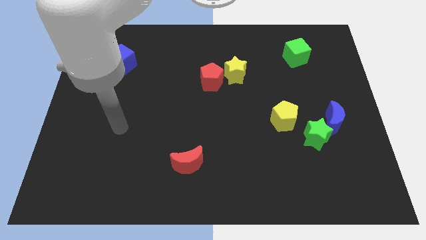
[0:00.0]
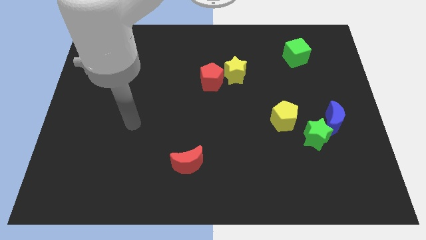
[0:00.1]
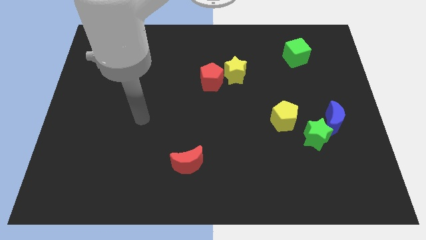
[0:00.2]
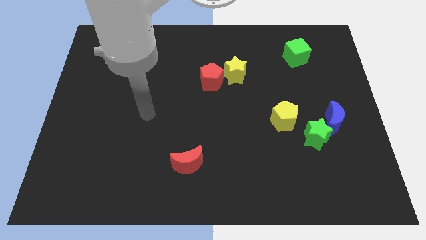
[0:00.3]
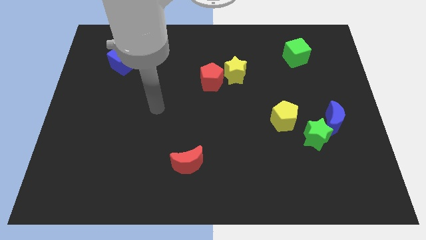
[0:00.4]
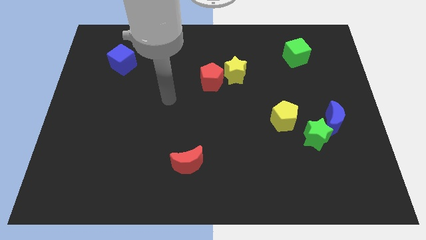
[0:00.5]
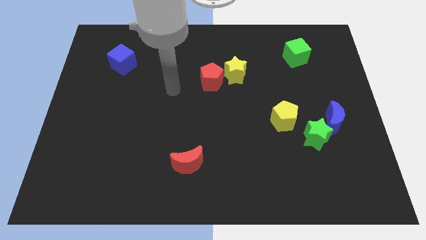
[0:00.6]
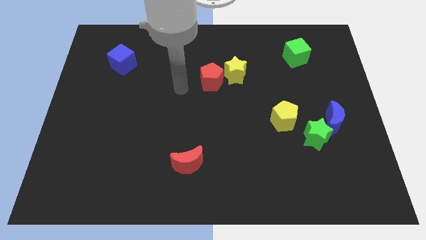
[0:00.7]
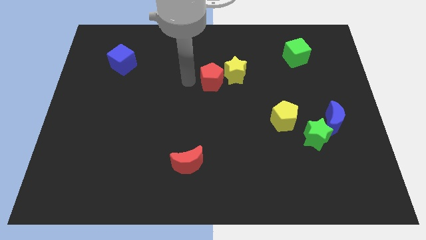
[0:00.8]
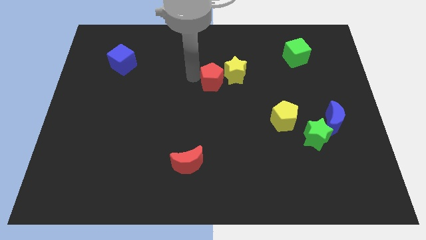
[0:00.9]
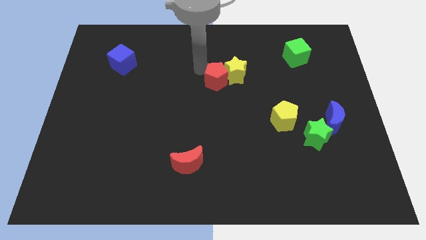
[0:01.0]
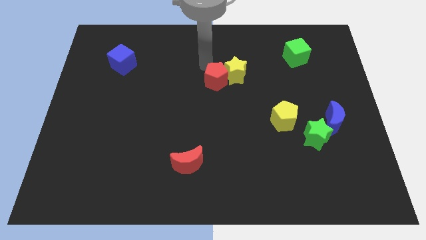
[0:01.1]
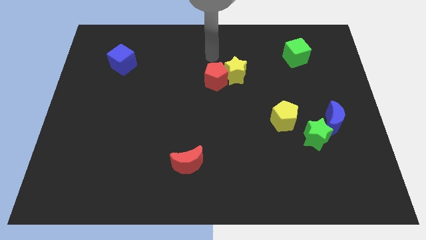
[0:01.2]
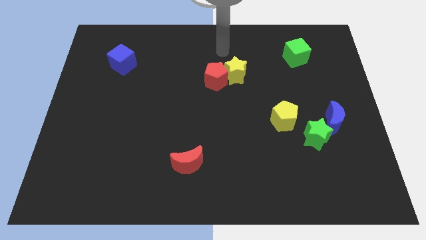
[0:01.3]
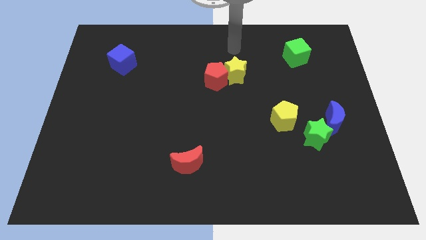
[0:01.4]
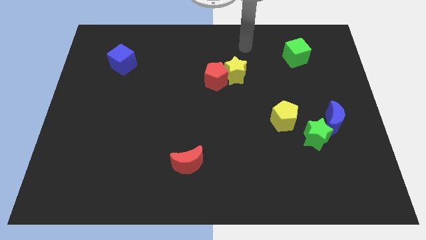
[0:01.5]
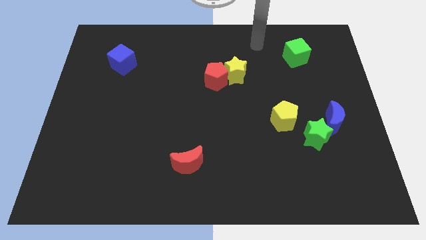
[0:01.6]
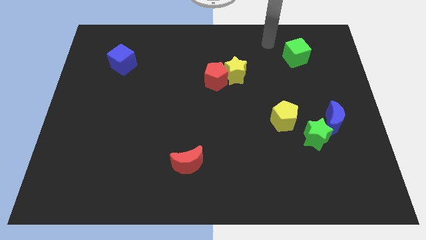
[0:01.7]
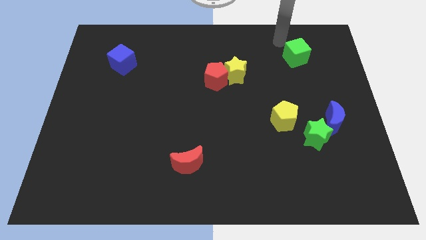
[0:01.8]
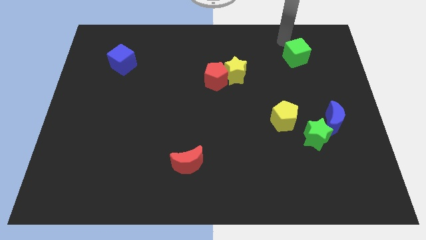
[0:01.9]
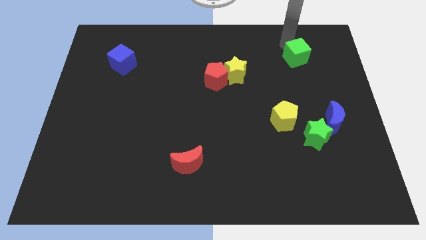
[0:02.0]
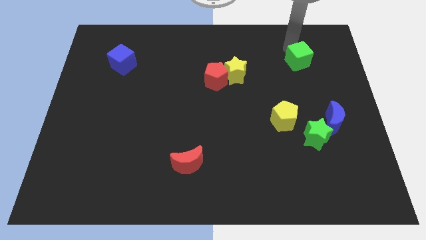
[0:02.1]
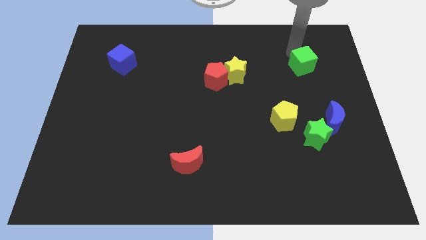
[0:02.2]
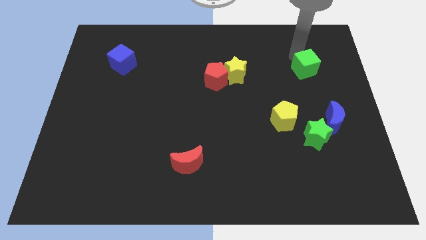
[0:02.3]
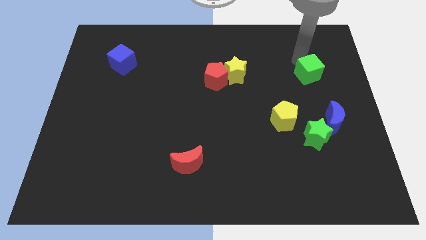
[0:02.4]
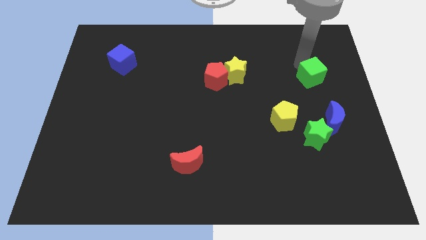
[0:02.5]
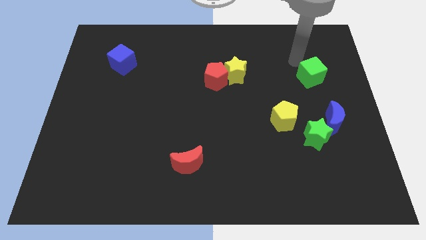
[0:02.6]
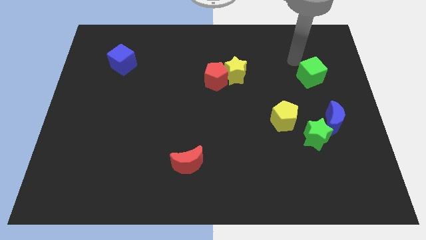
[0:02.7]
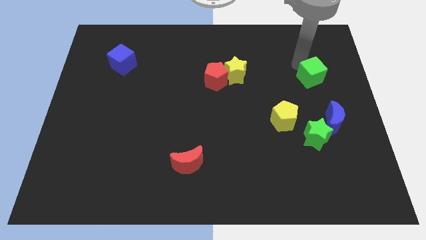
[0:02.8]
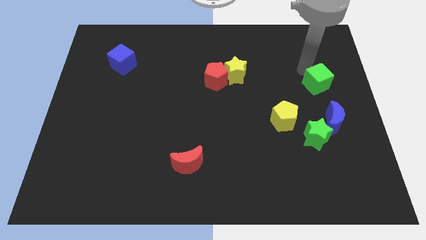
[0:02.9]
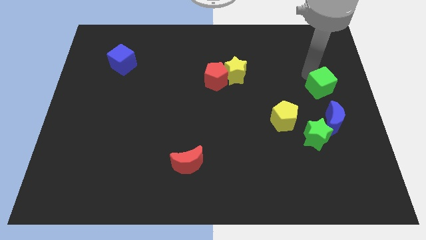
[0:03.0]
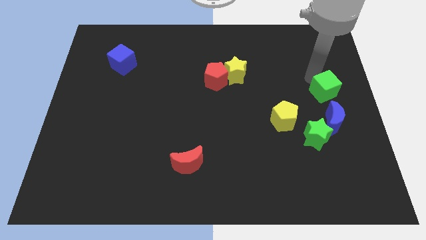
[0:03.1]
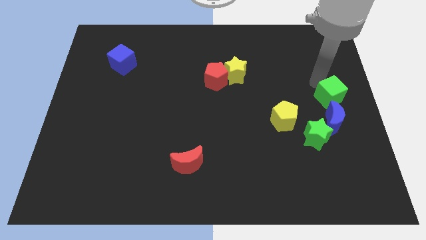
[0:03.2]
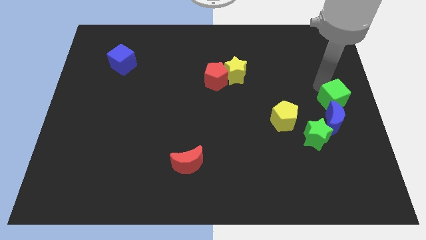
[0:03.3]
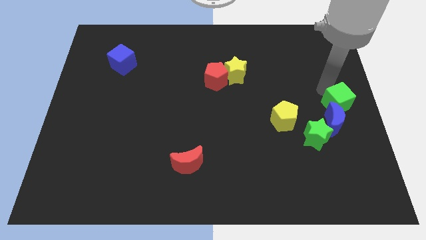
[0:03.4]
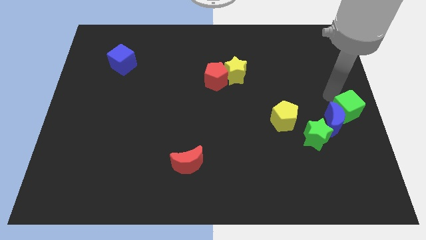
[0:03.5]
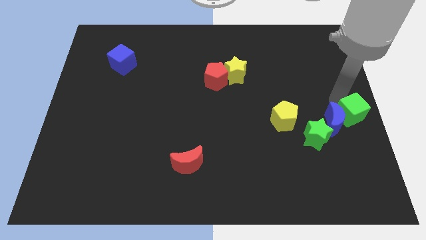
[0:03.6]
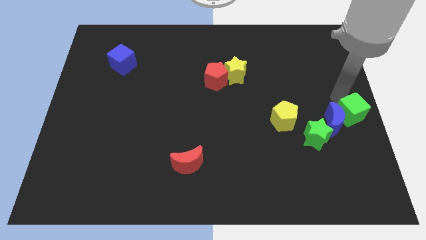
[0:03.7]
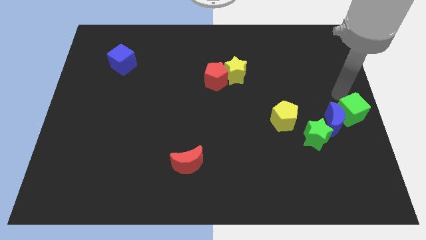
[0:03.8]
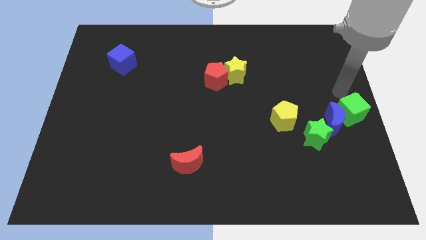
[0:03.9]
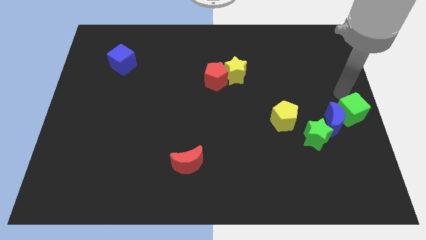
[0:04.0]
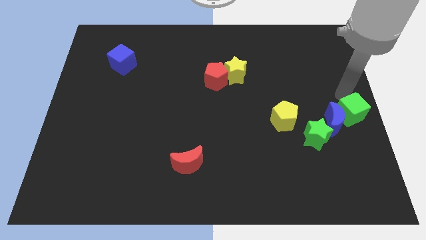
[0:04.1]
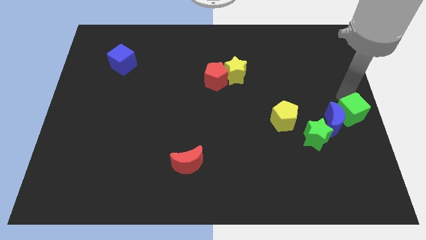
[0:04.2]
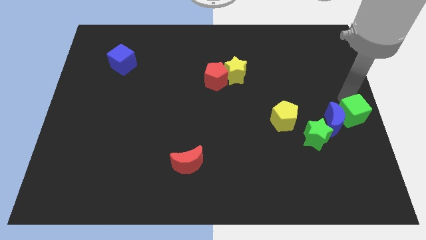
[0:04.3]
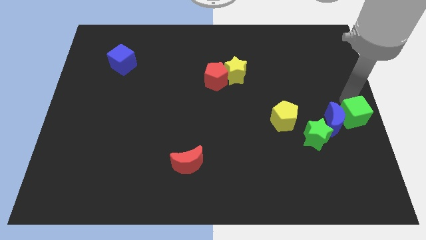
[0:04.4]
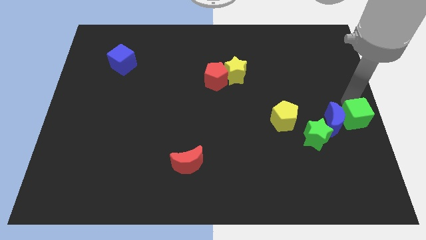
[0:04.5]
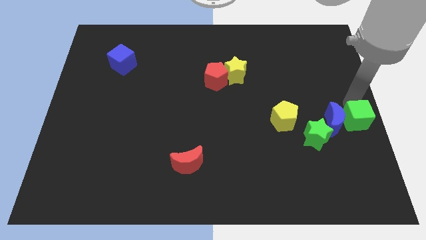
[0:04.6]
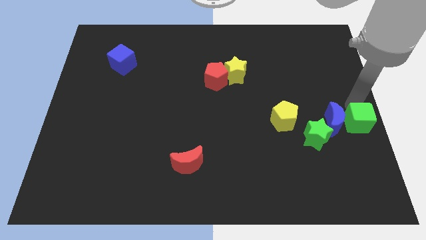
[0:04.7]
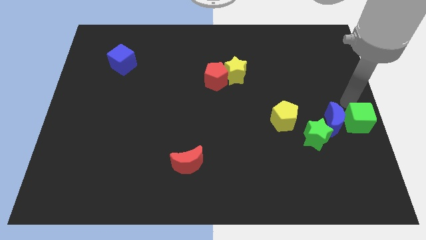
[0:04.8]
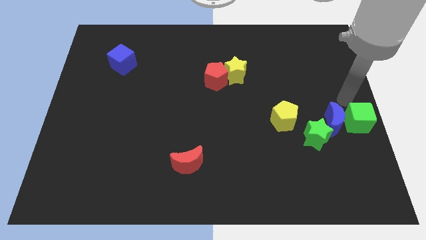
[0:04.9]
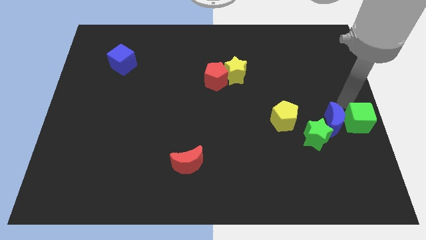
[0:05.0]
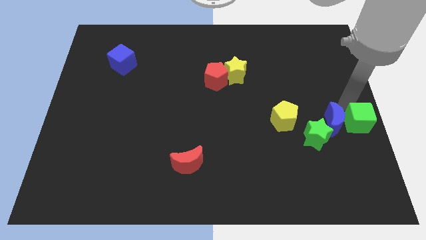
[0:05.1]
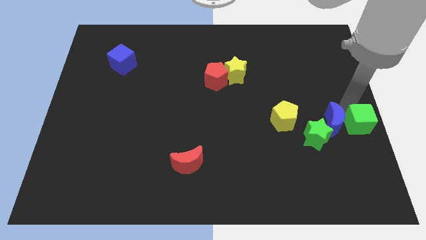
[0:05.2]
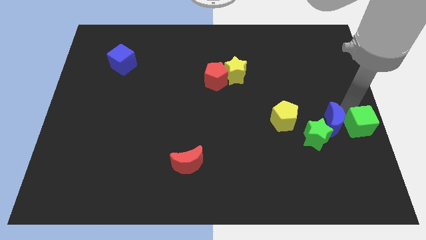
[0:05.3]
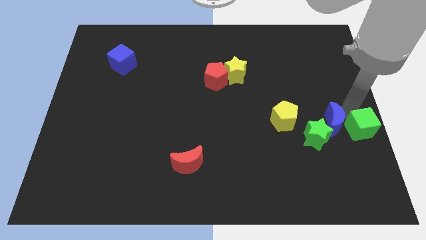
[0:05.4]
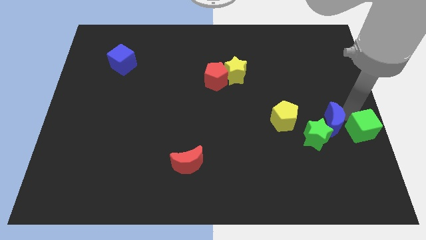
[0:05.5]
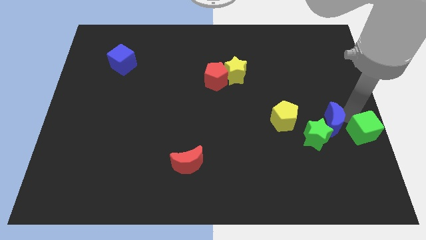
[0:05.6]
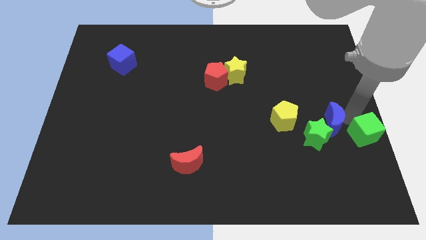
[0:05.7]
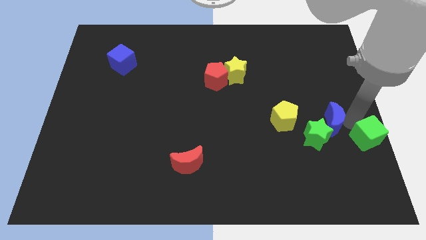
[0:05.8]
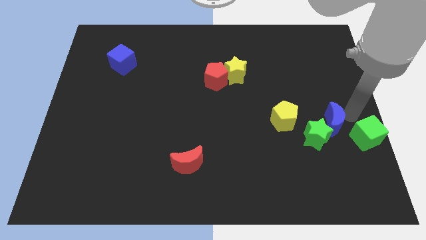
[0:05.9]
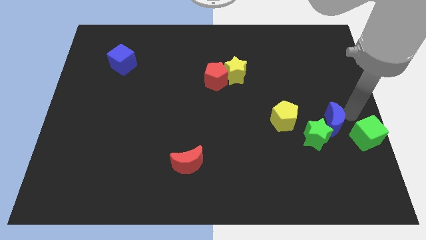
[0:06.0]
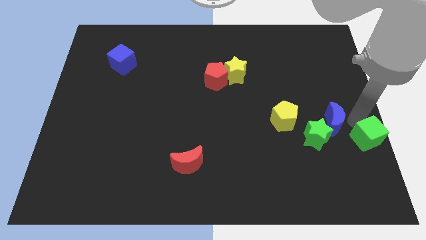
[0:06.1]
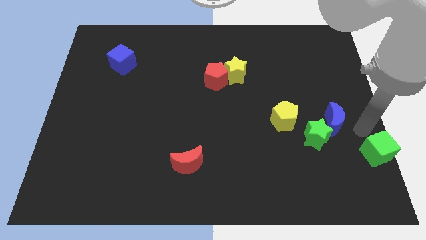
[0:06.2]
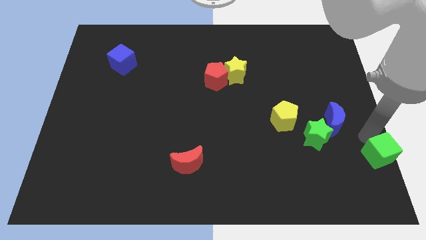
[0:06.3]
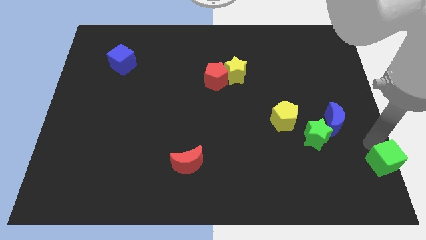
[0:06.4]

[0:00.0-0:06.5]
put the green cube to the bottom right of the board
